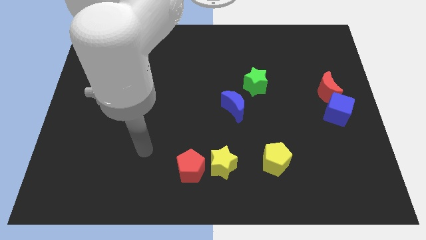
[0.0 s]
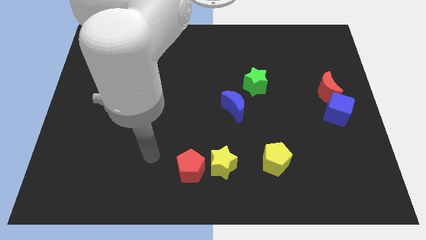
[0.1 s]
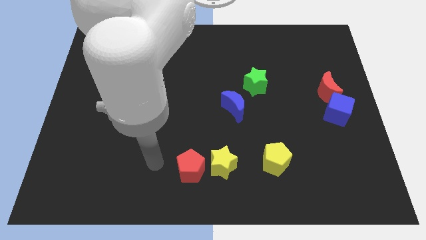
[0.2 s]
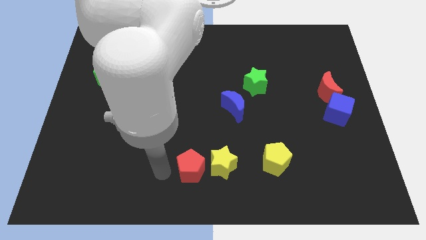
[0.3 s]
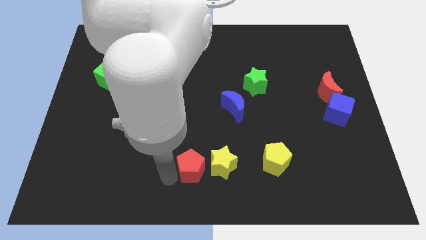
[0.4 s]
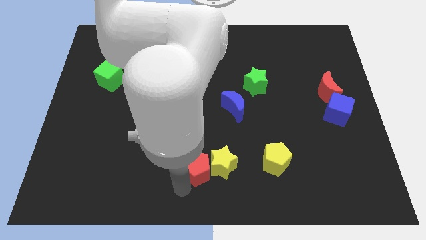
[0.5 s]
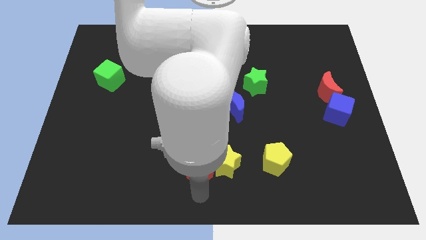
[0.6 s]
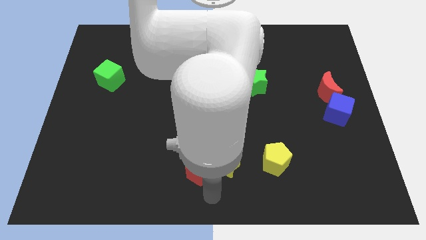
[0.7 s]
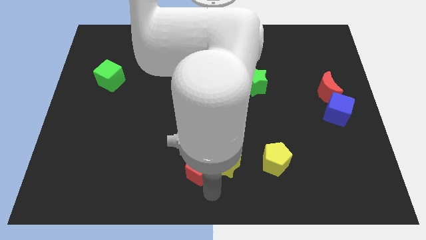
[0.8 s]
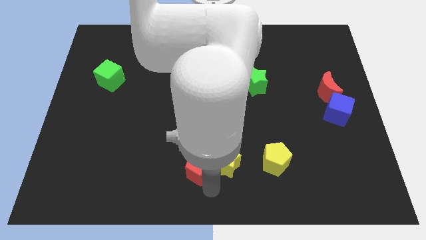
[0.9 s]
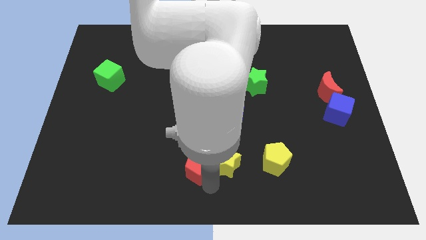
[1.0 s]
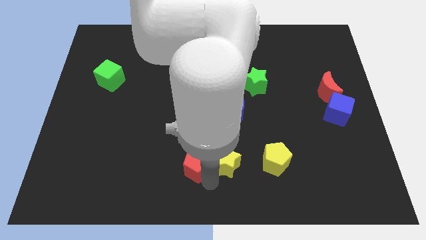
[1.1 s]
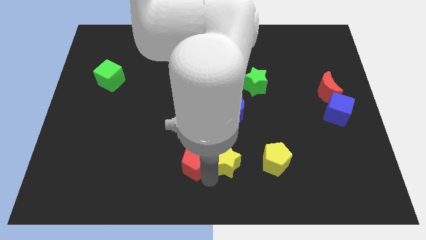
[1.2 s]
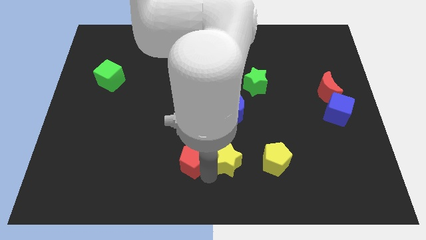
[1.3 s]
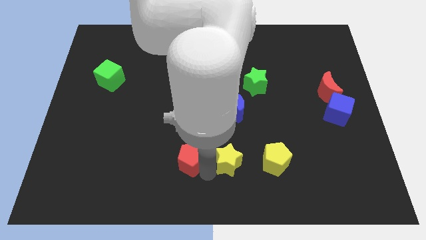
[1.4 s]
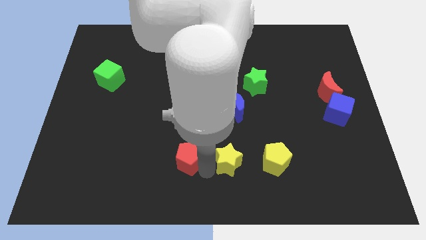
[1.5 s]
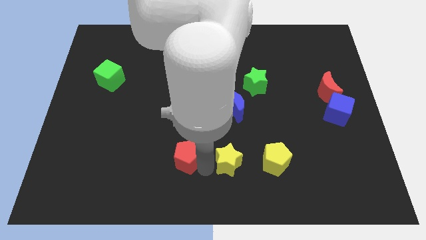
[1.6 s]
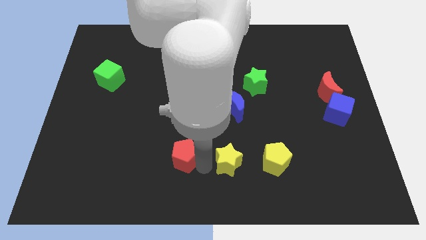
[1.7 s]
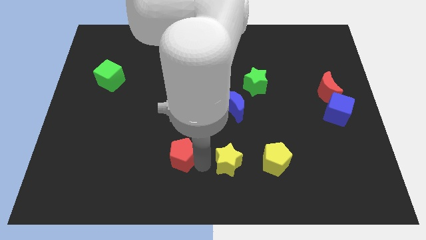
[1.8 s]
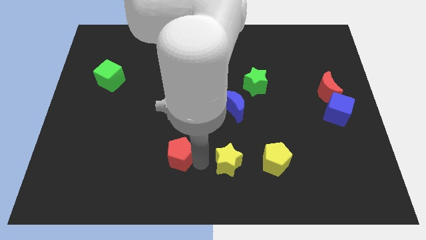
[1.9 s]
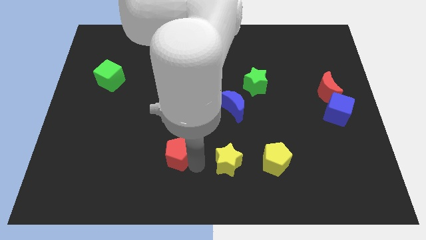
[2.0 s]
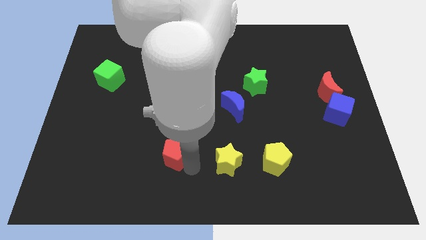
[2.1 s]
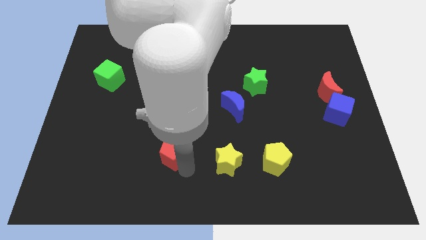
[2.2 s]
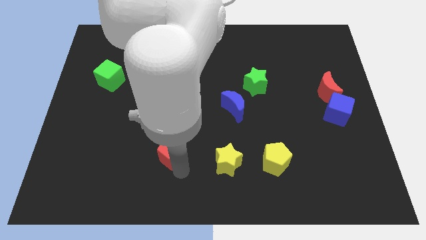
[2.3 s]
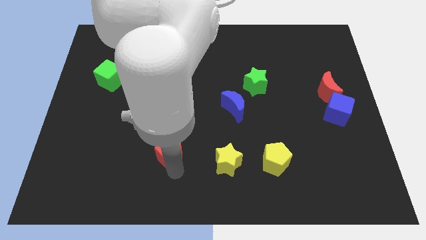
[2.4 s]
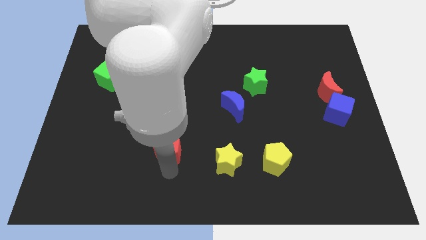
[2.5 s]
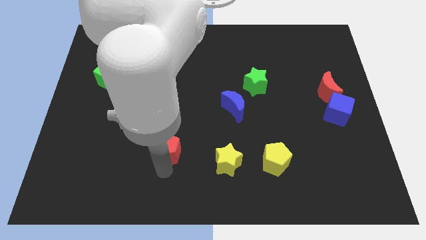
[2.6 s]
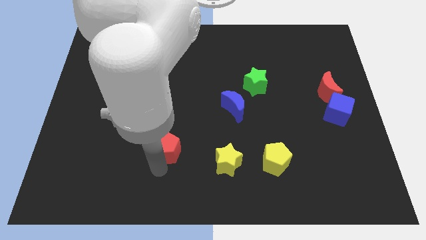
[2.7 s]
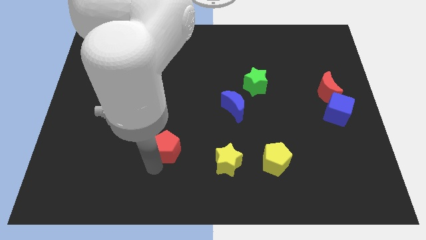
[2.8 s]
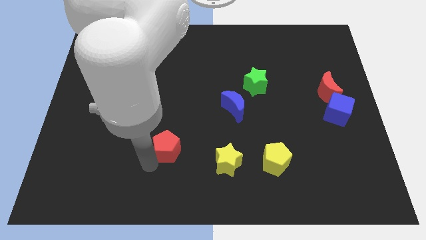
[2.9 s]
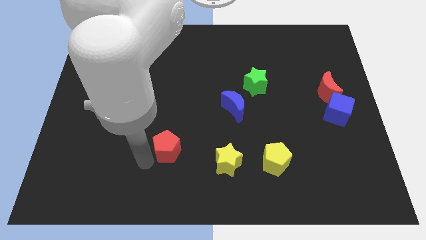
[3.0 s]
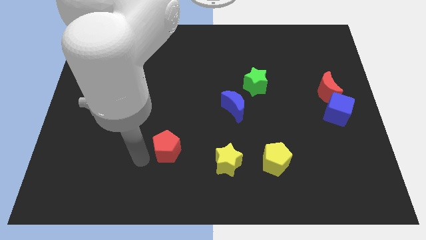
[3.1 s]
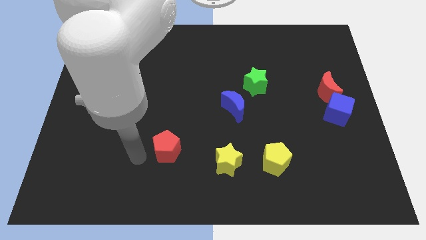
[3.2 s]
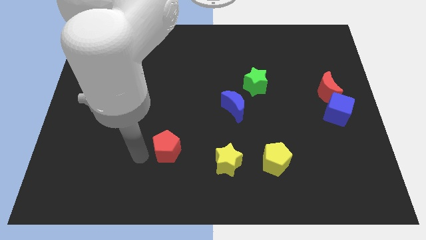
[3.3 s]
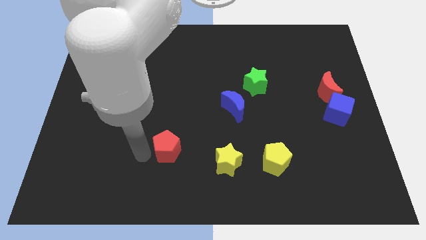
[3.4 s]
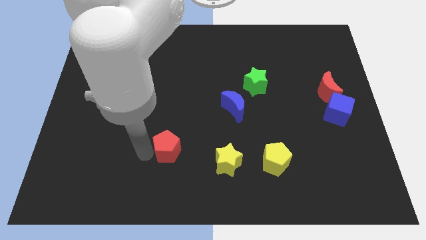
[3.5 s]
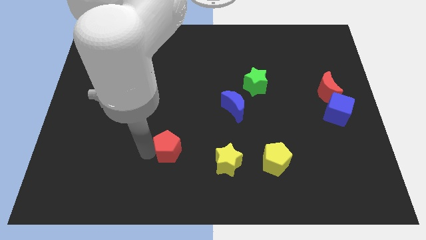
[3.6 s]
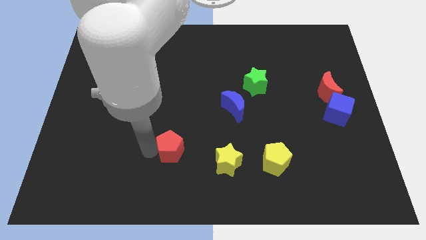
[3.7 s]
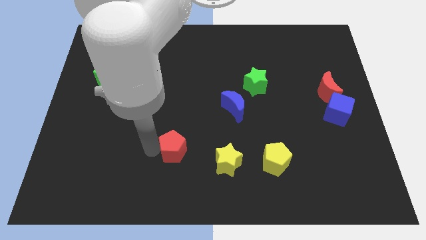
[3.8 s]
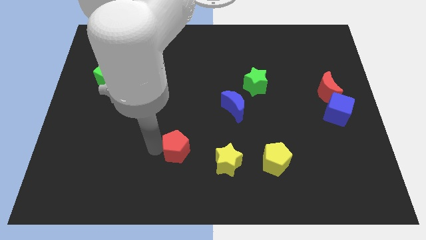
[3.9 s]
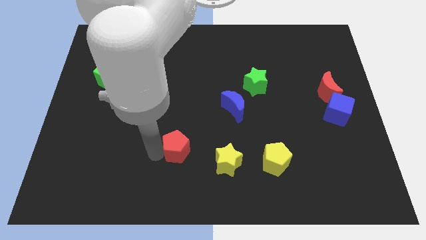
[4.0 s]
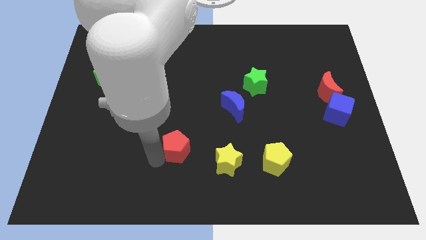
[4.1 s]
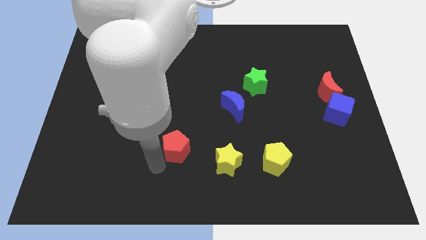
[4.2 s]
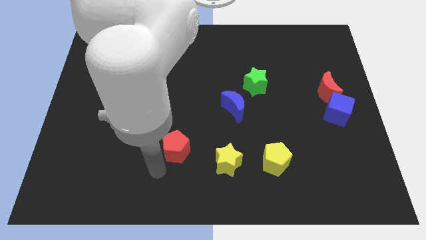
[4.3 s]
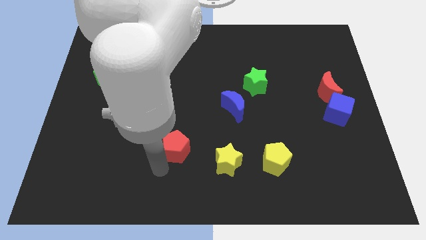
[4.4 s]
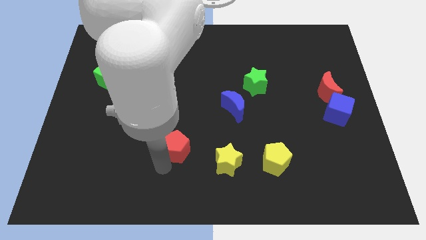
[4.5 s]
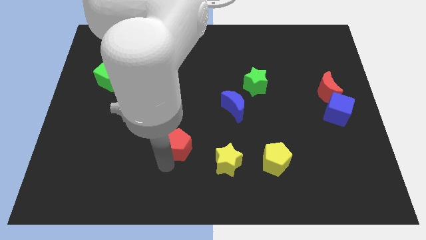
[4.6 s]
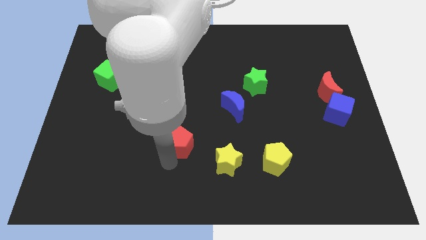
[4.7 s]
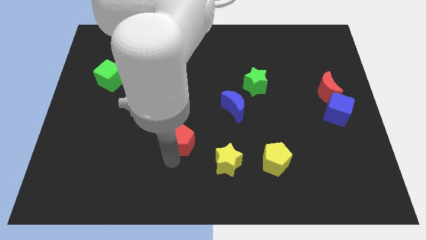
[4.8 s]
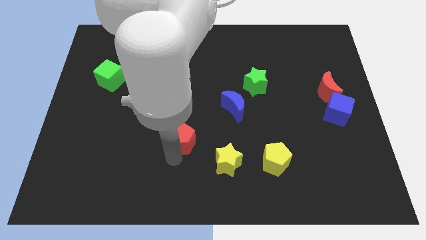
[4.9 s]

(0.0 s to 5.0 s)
slide the red pentagon somewhat up

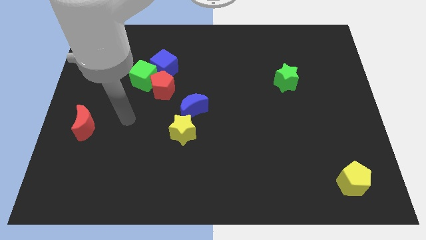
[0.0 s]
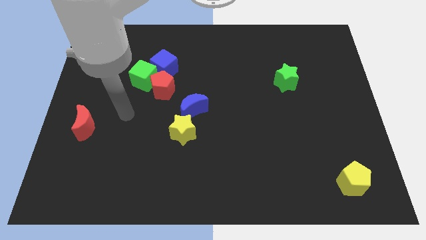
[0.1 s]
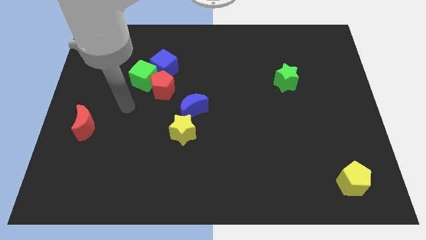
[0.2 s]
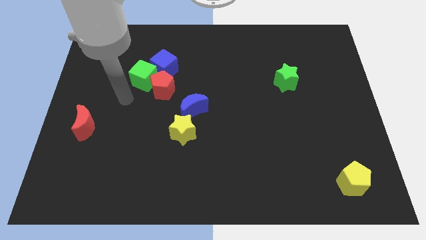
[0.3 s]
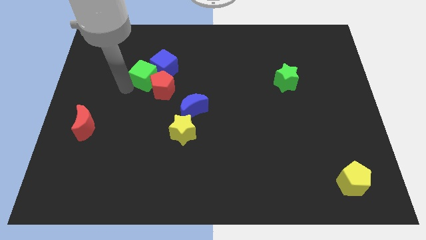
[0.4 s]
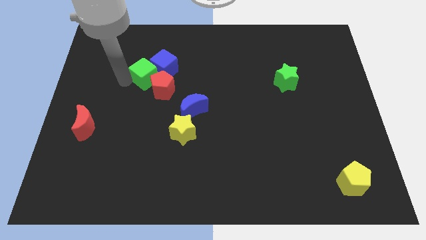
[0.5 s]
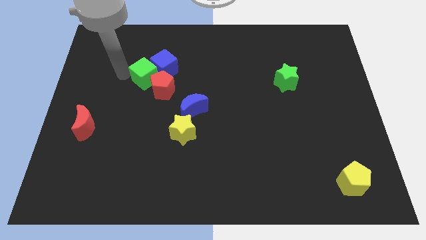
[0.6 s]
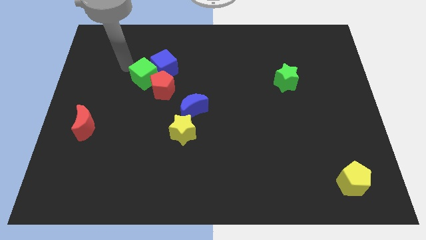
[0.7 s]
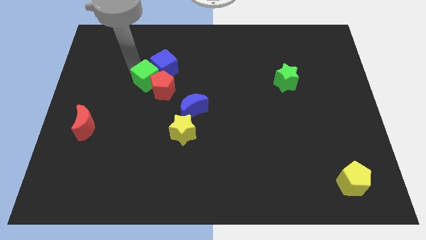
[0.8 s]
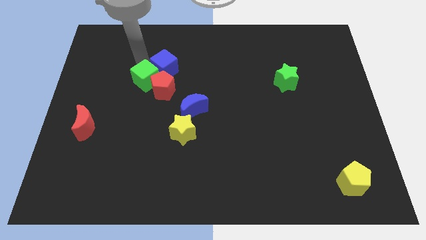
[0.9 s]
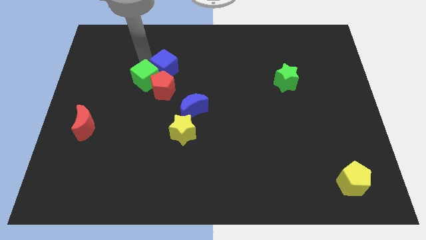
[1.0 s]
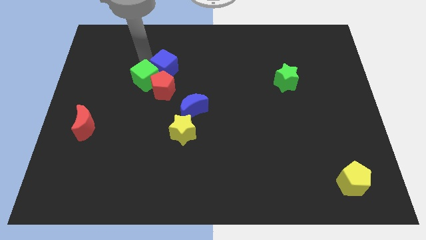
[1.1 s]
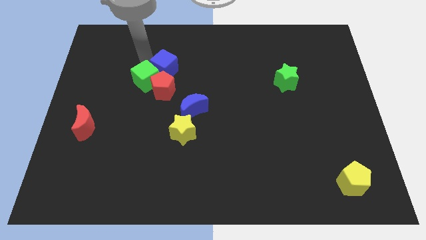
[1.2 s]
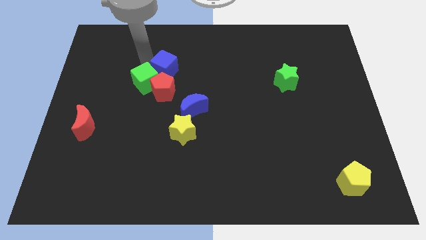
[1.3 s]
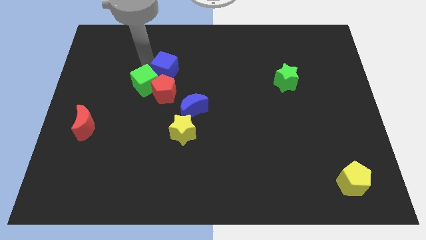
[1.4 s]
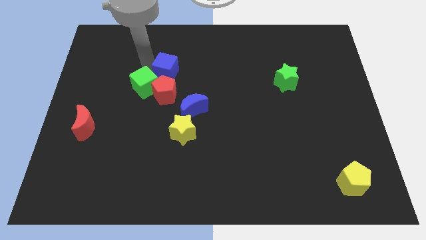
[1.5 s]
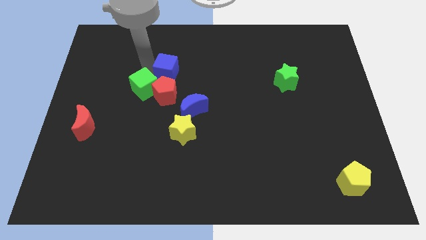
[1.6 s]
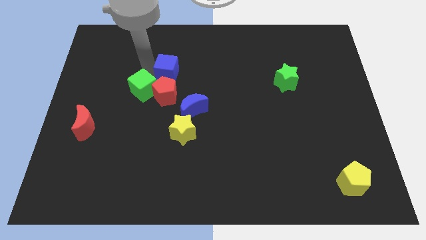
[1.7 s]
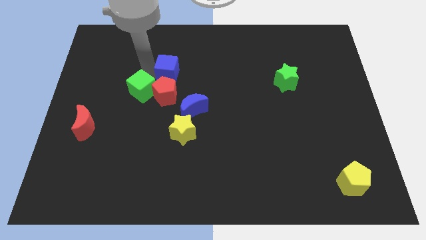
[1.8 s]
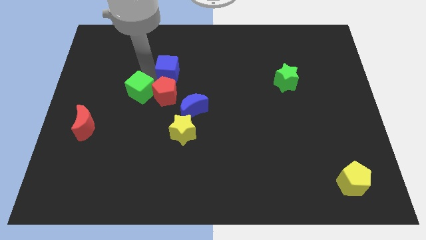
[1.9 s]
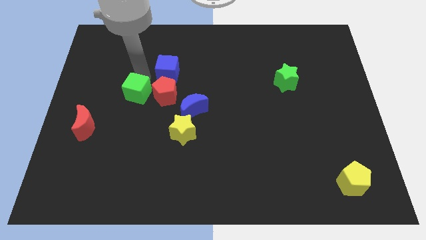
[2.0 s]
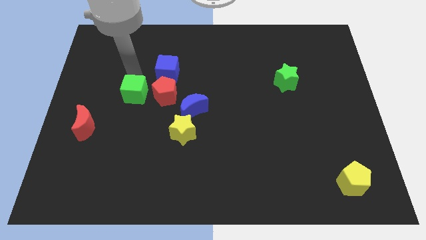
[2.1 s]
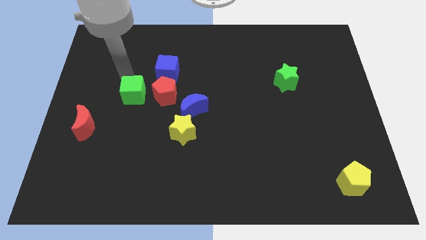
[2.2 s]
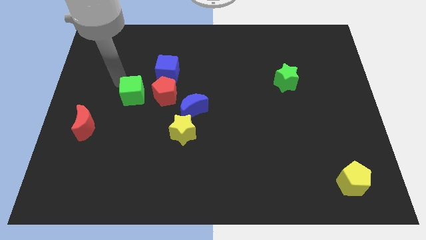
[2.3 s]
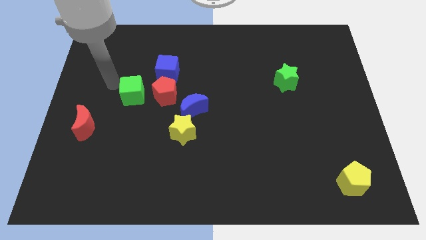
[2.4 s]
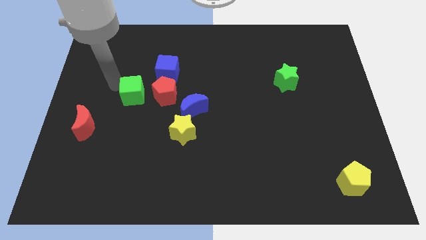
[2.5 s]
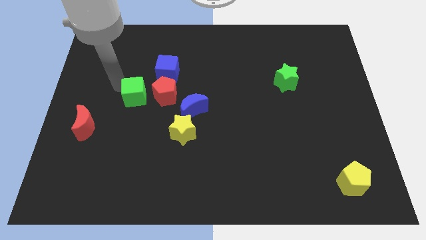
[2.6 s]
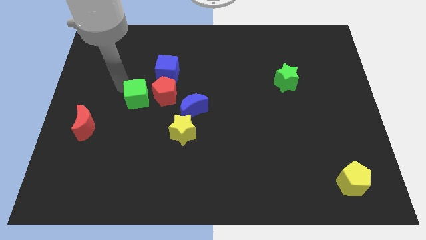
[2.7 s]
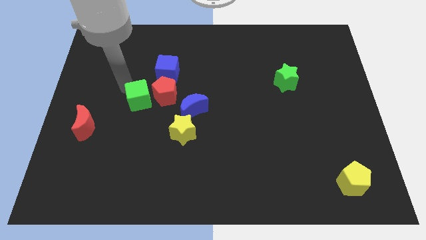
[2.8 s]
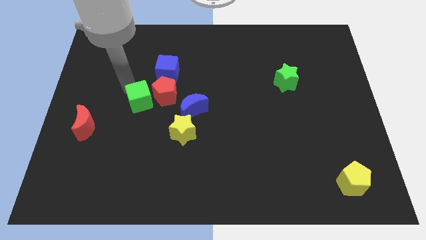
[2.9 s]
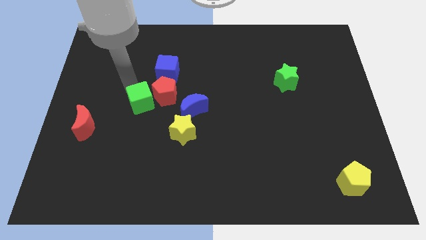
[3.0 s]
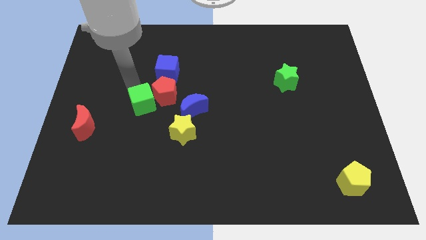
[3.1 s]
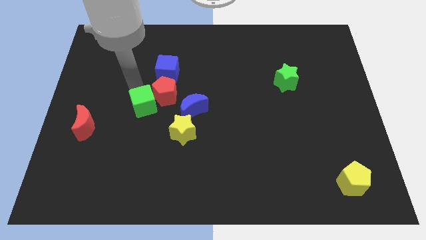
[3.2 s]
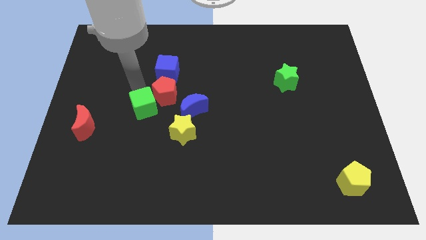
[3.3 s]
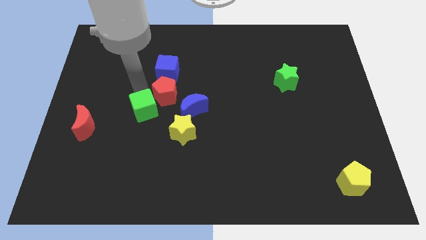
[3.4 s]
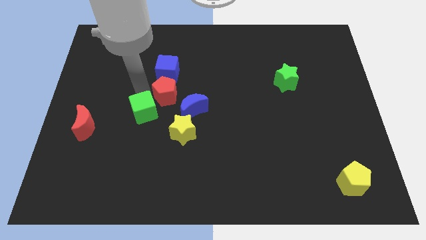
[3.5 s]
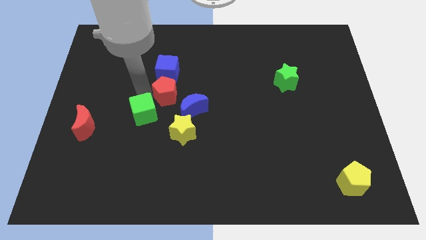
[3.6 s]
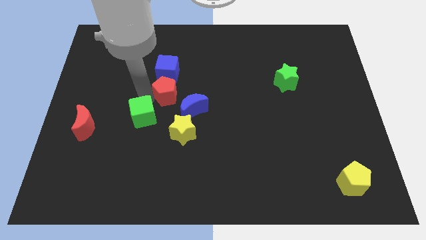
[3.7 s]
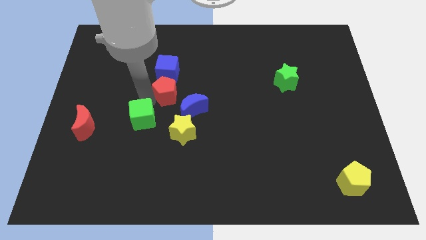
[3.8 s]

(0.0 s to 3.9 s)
slightly push the green cube downwards and right diagonally
